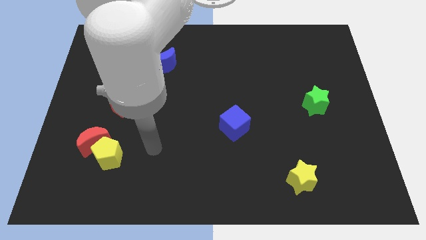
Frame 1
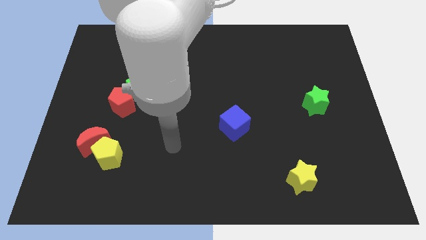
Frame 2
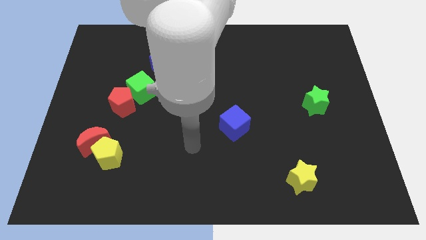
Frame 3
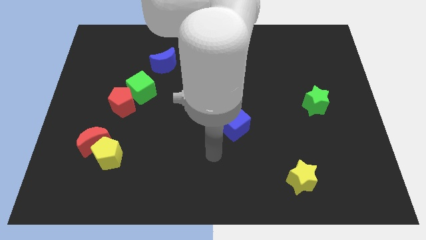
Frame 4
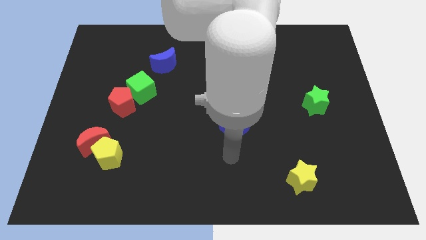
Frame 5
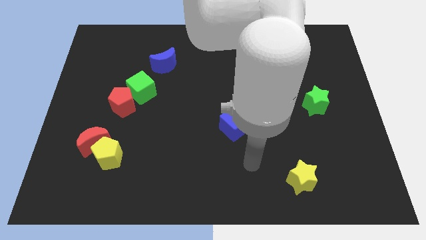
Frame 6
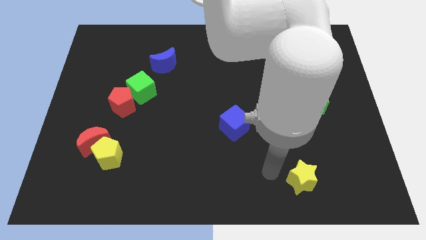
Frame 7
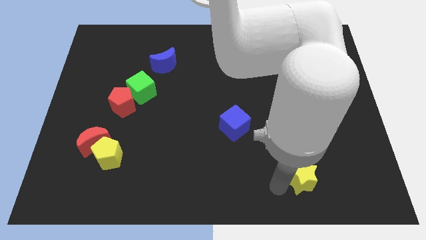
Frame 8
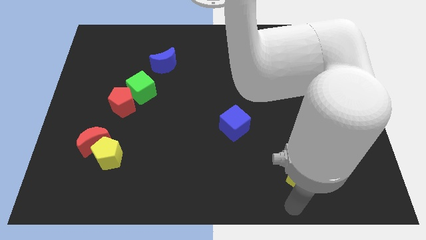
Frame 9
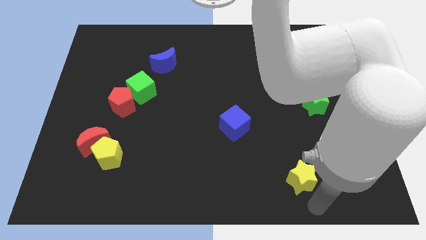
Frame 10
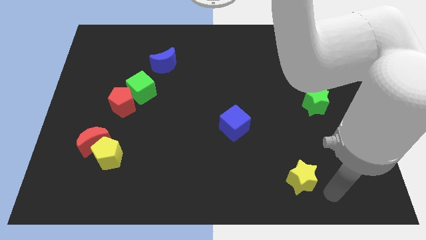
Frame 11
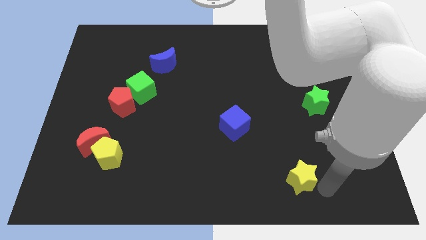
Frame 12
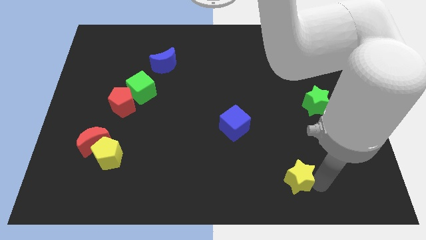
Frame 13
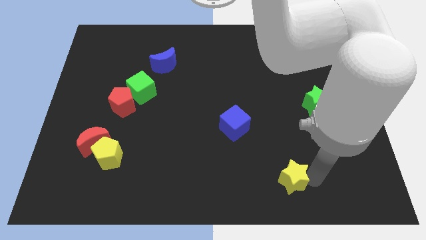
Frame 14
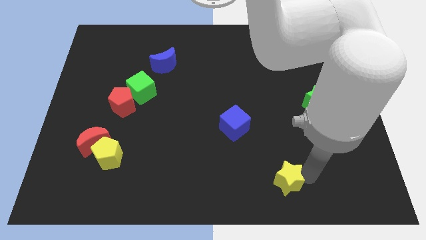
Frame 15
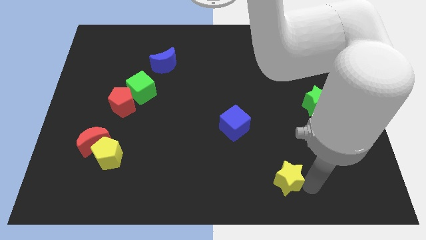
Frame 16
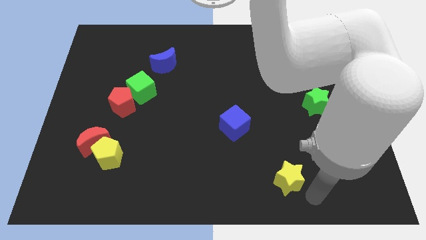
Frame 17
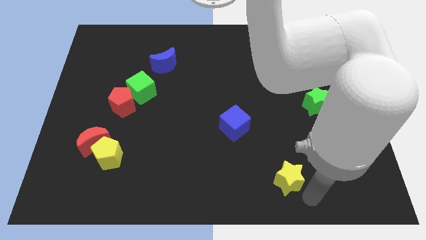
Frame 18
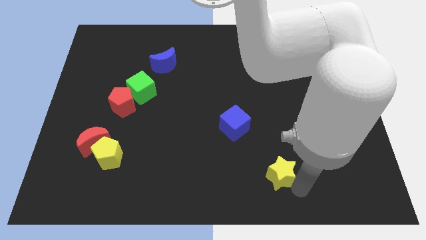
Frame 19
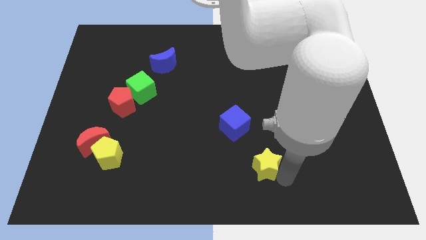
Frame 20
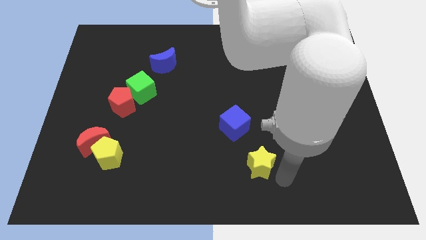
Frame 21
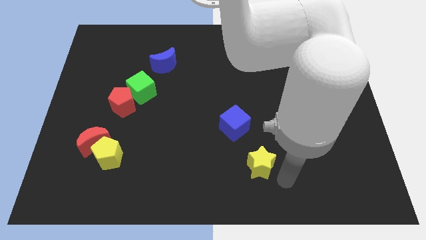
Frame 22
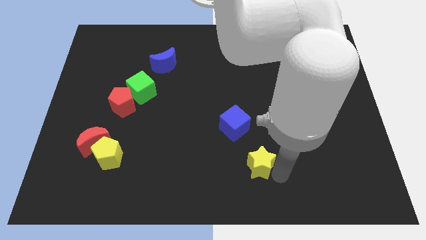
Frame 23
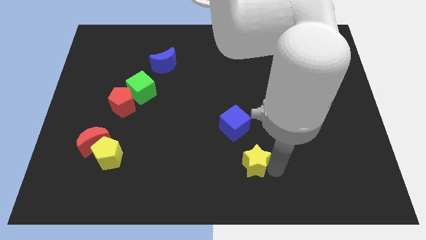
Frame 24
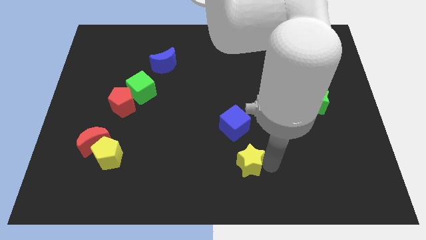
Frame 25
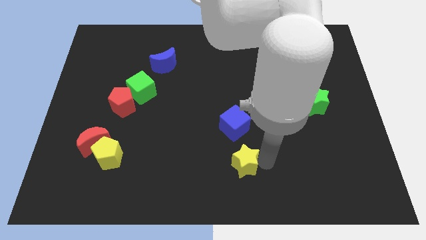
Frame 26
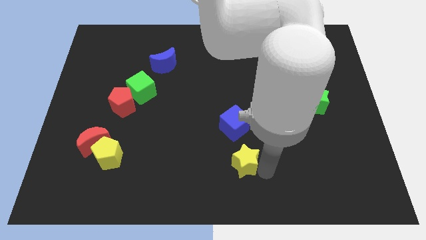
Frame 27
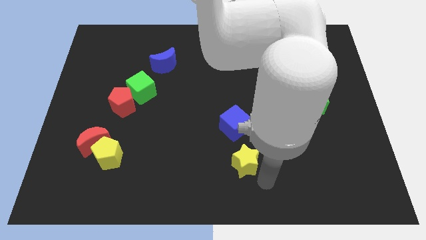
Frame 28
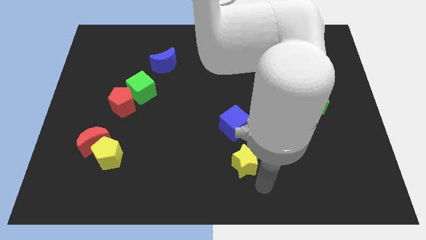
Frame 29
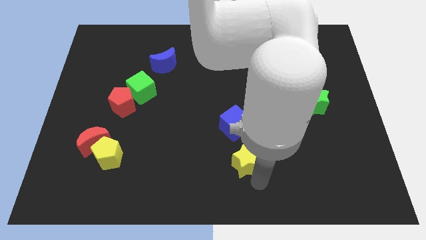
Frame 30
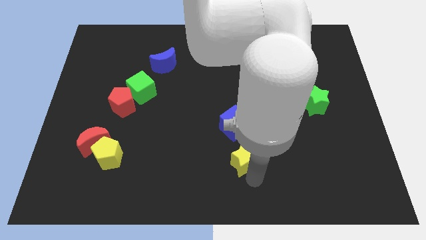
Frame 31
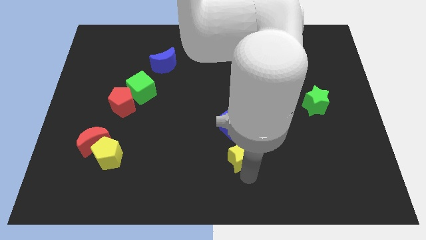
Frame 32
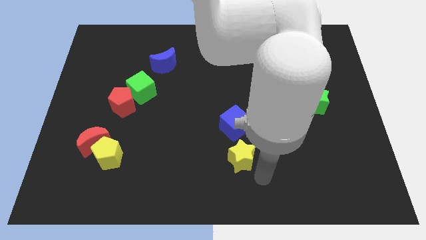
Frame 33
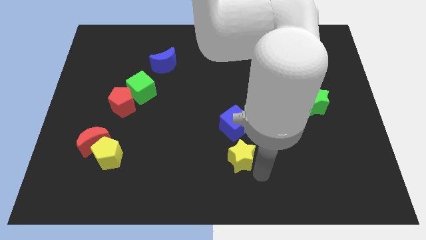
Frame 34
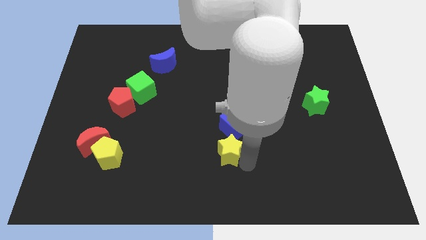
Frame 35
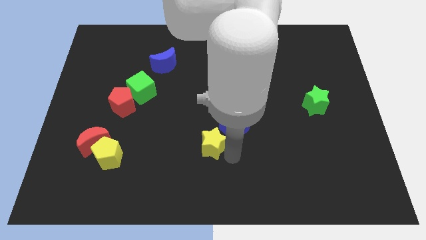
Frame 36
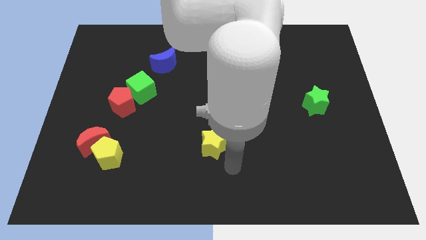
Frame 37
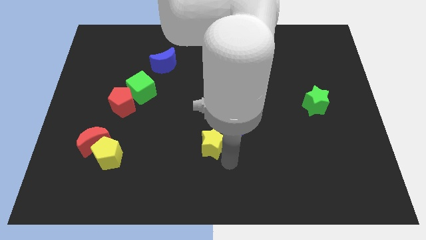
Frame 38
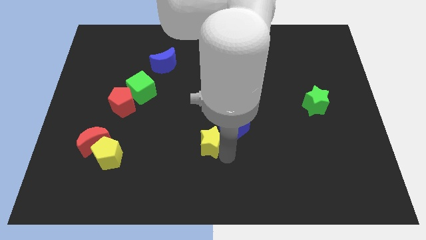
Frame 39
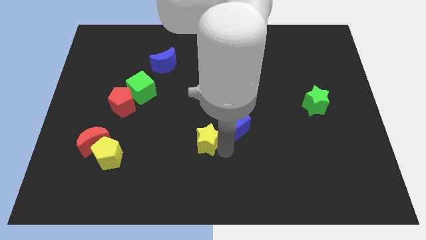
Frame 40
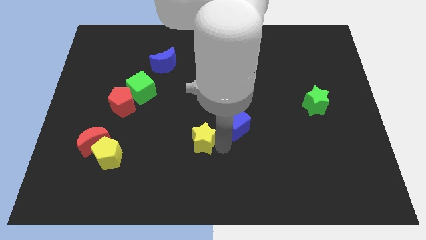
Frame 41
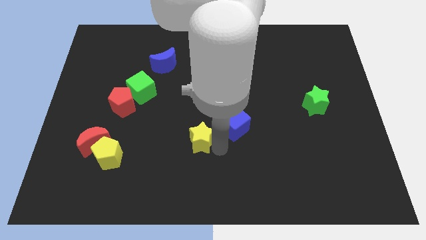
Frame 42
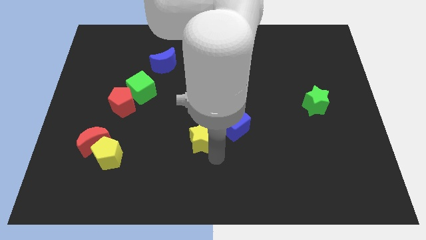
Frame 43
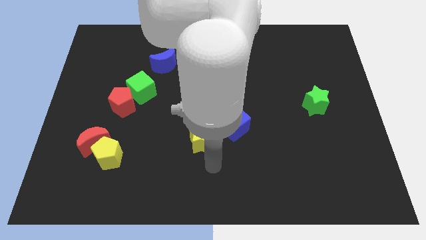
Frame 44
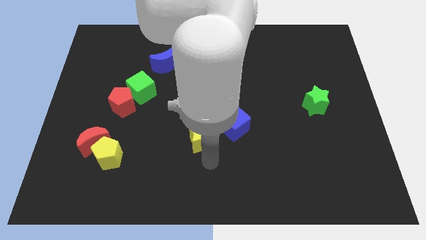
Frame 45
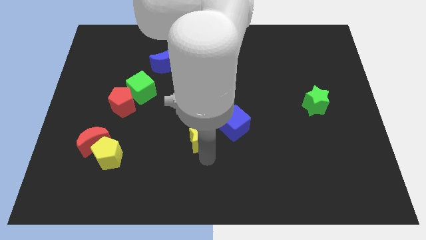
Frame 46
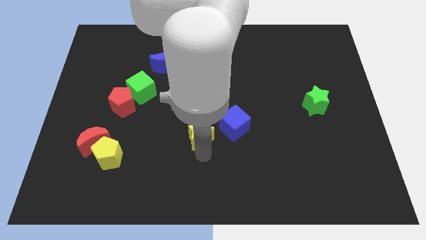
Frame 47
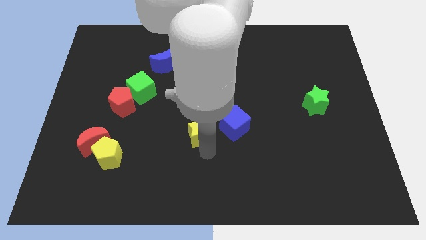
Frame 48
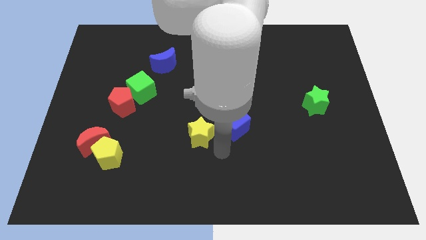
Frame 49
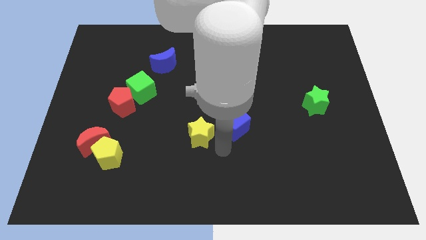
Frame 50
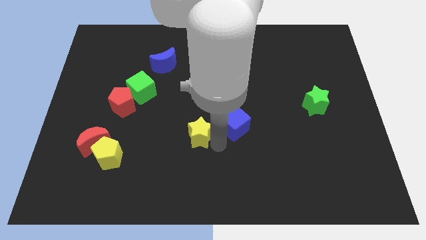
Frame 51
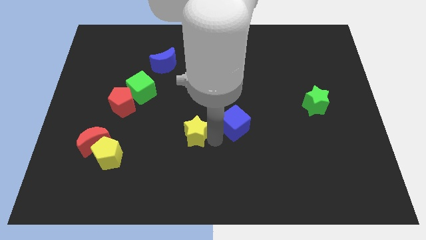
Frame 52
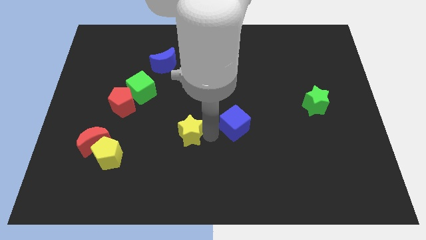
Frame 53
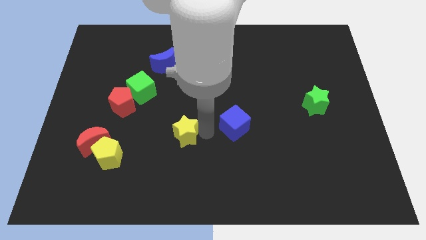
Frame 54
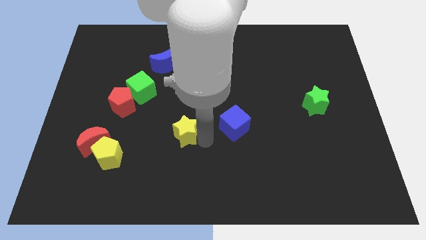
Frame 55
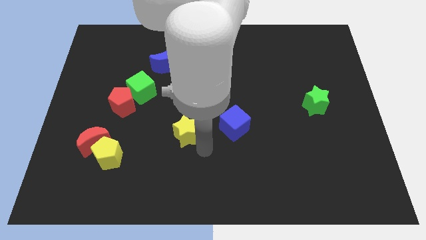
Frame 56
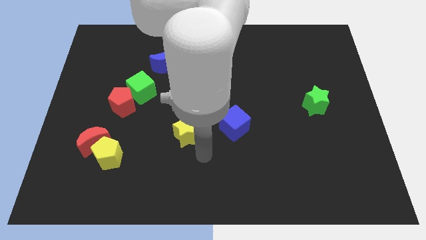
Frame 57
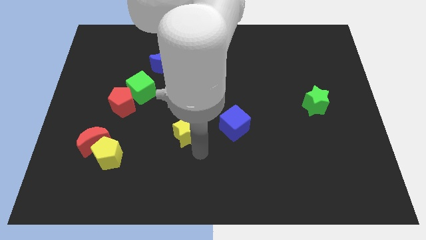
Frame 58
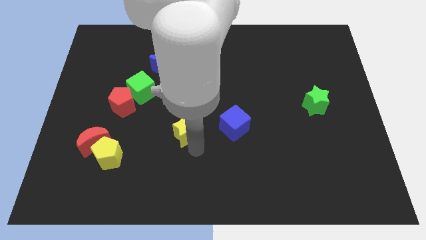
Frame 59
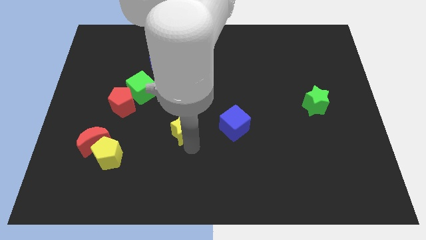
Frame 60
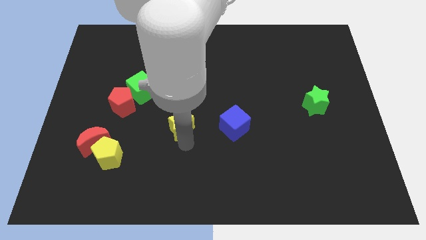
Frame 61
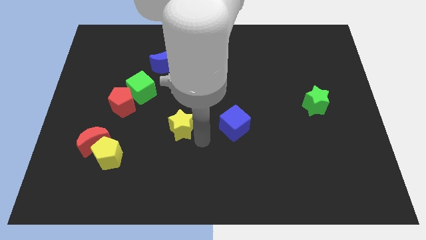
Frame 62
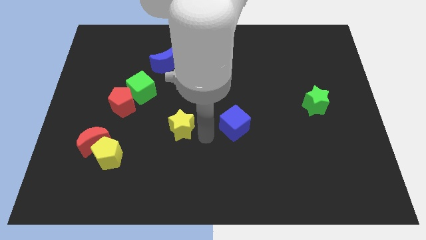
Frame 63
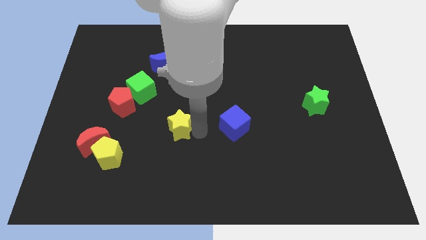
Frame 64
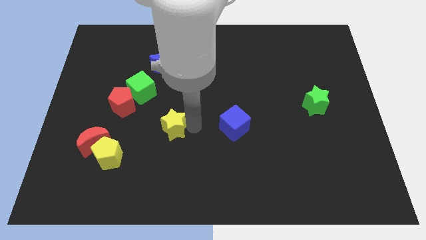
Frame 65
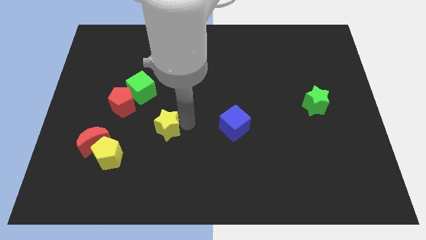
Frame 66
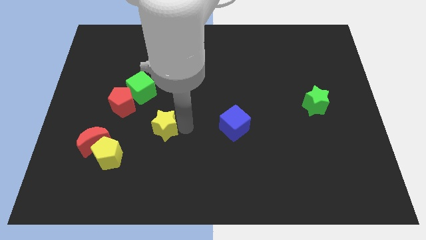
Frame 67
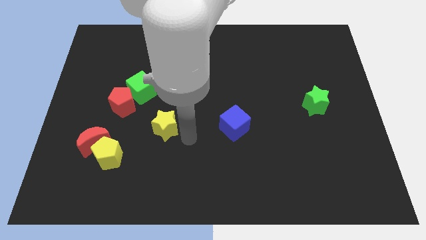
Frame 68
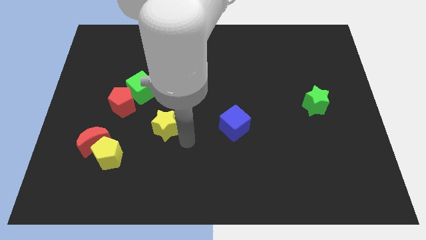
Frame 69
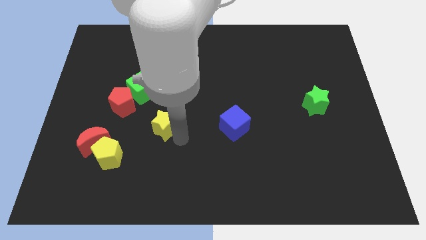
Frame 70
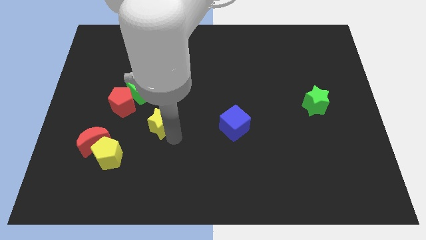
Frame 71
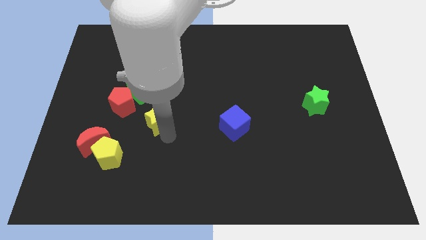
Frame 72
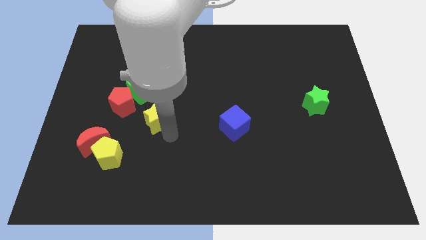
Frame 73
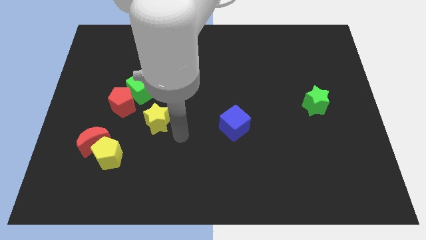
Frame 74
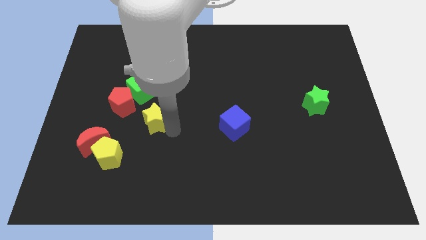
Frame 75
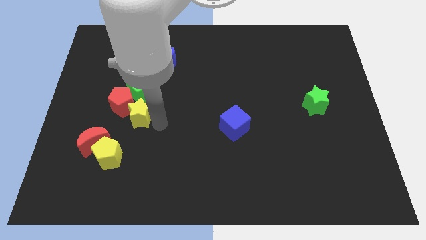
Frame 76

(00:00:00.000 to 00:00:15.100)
put the yellow star towards the red pentagon
